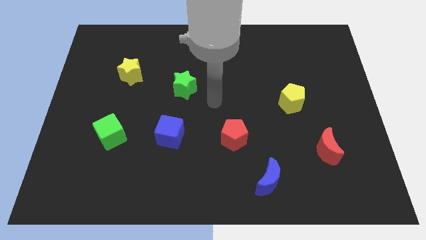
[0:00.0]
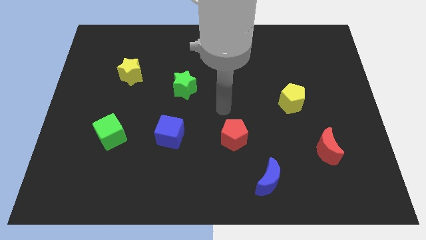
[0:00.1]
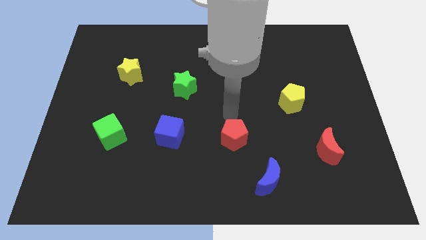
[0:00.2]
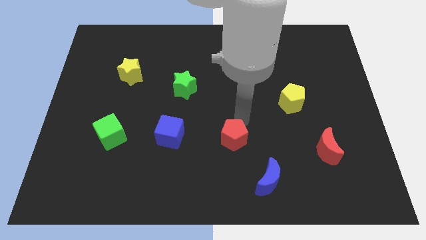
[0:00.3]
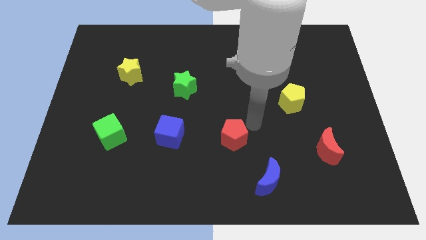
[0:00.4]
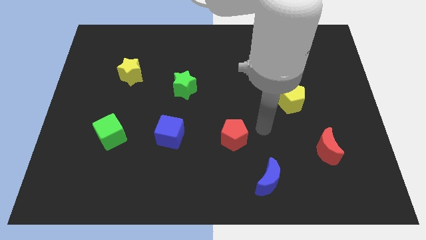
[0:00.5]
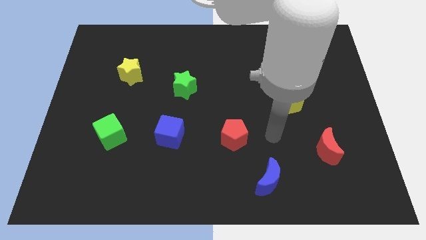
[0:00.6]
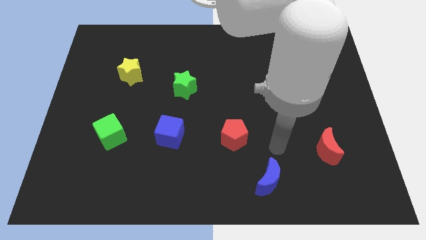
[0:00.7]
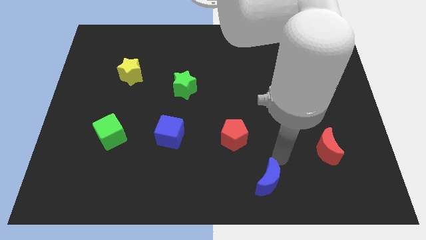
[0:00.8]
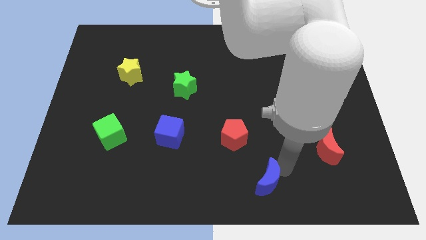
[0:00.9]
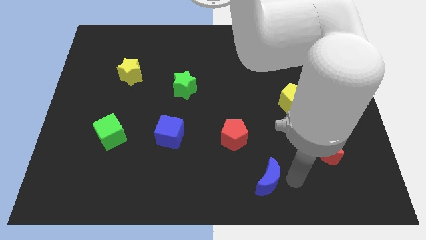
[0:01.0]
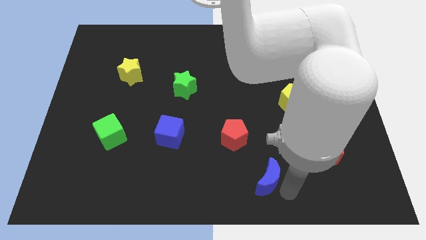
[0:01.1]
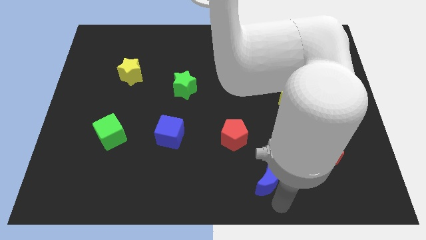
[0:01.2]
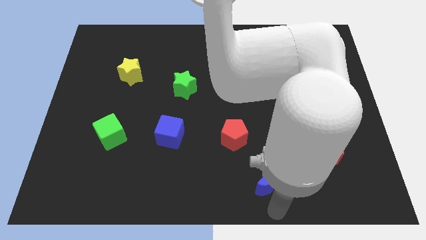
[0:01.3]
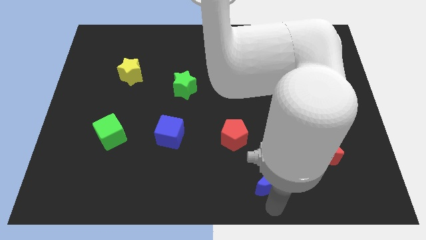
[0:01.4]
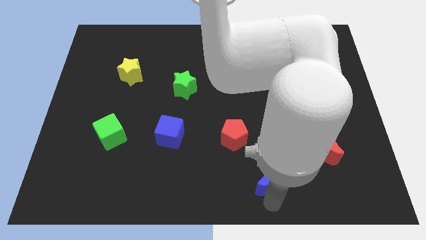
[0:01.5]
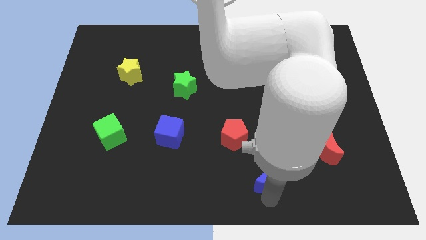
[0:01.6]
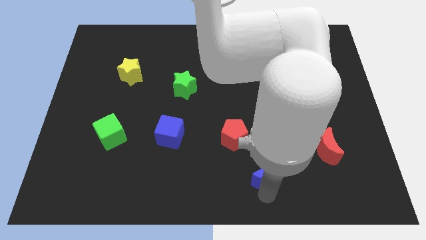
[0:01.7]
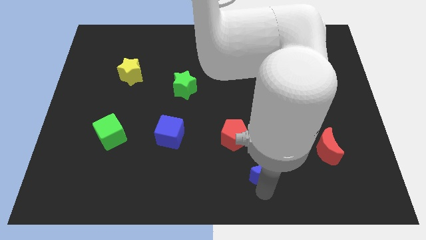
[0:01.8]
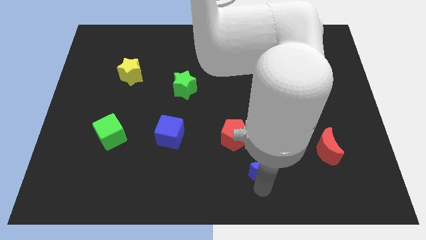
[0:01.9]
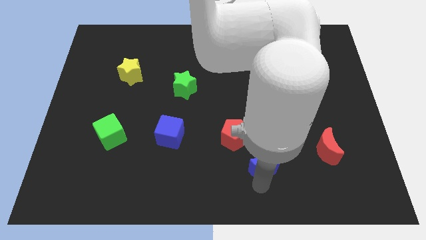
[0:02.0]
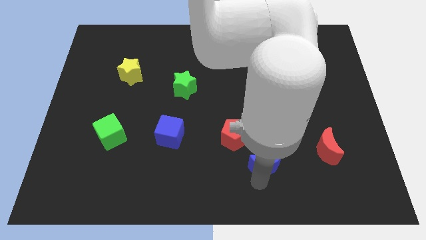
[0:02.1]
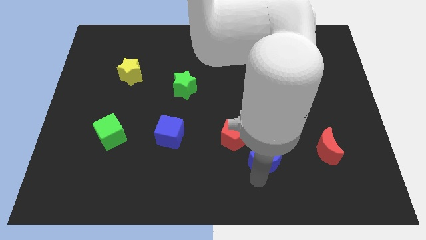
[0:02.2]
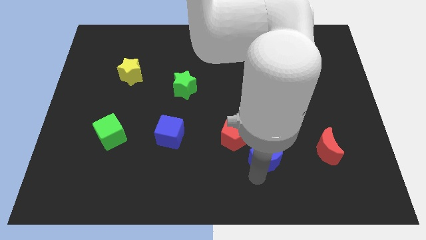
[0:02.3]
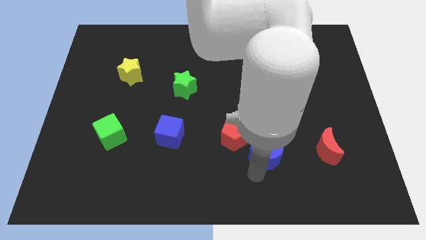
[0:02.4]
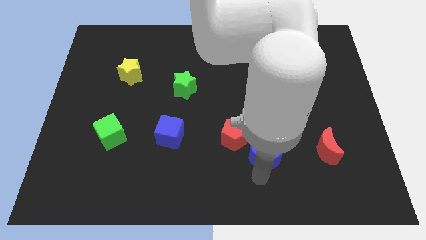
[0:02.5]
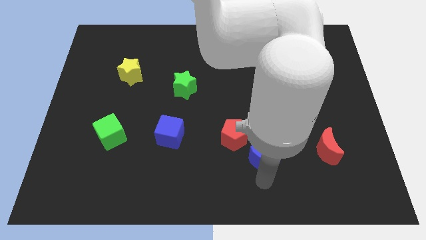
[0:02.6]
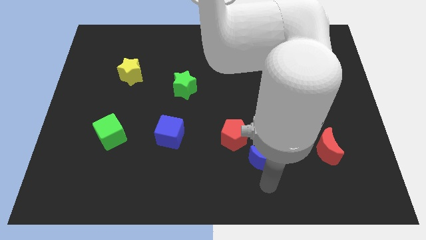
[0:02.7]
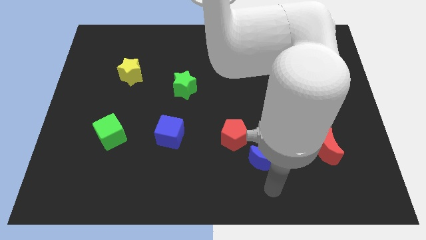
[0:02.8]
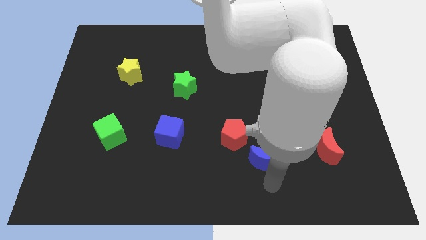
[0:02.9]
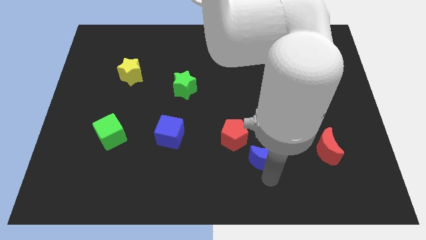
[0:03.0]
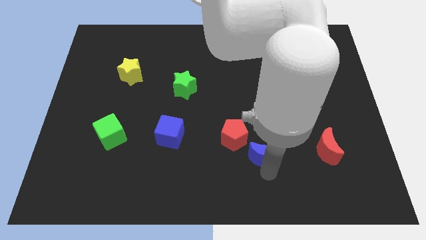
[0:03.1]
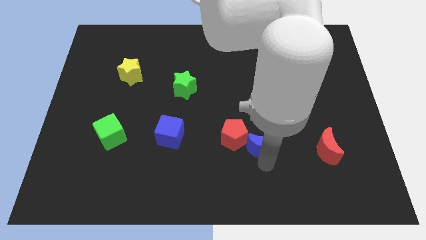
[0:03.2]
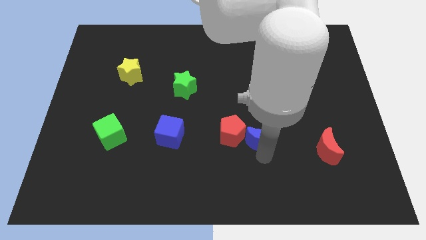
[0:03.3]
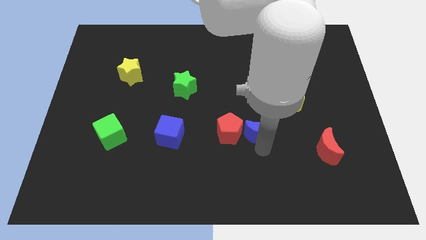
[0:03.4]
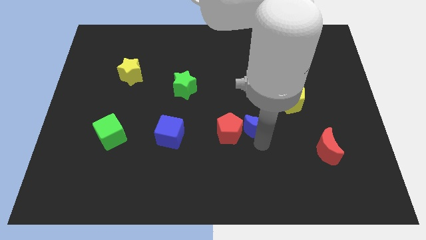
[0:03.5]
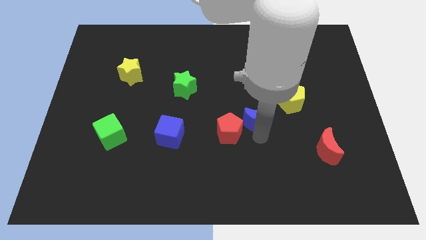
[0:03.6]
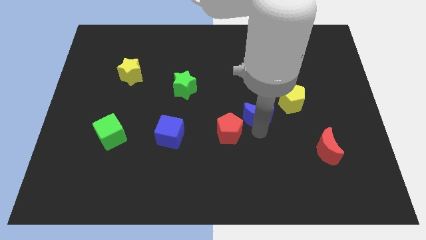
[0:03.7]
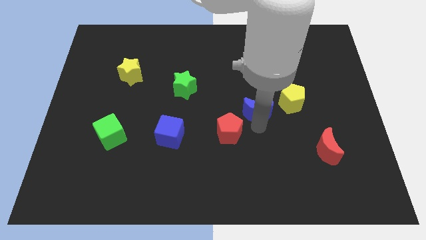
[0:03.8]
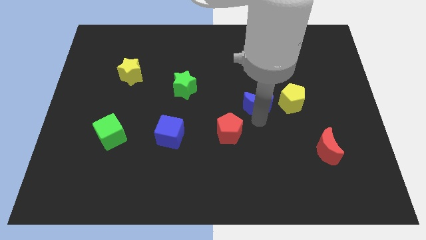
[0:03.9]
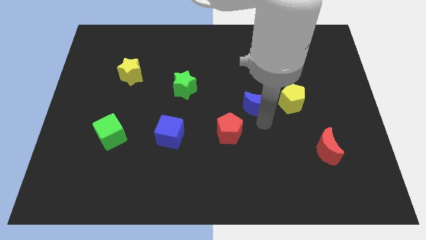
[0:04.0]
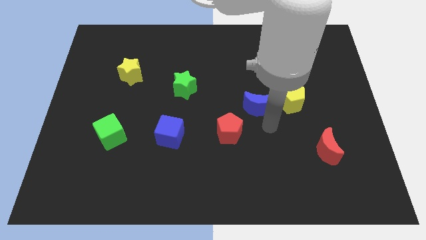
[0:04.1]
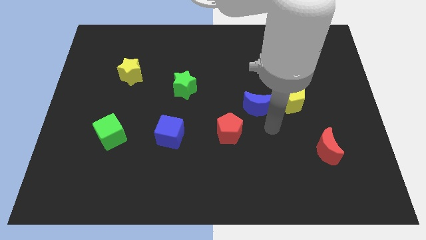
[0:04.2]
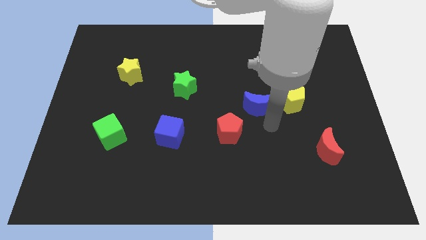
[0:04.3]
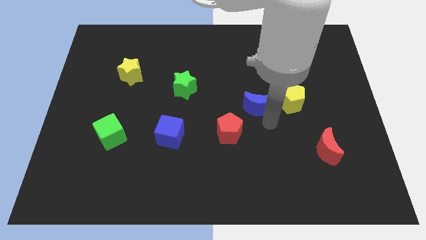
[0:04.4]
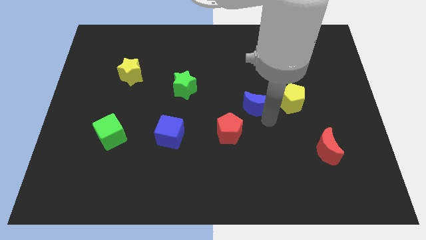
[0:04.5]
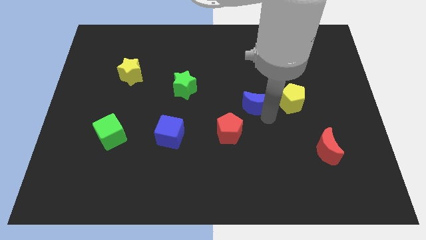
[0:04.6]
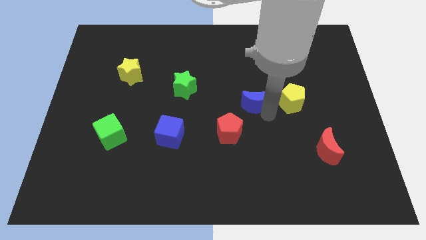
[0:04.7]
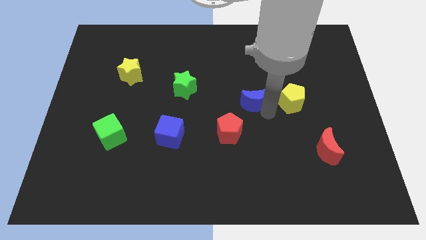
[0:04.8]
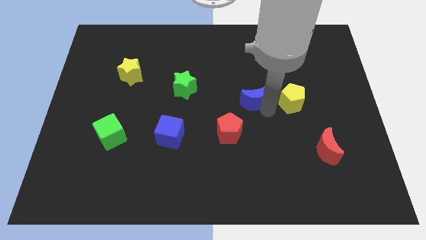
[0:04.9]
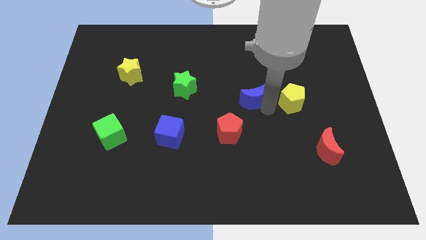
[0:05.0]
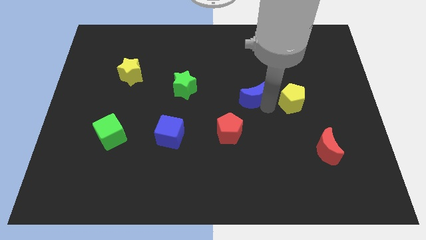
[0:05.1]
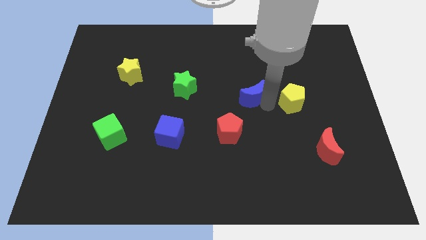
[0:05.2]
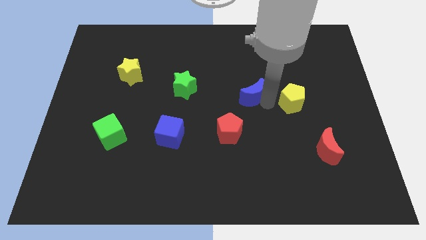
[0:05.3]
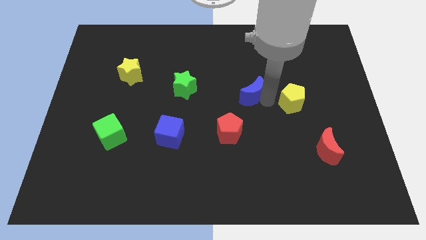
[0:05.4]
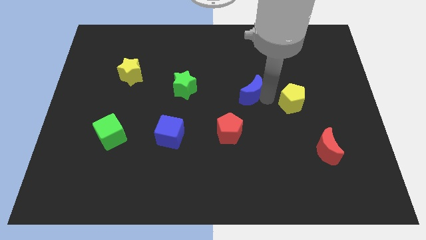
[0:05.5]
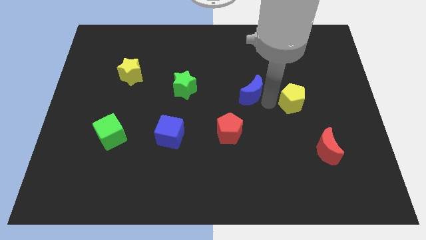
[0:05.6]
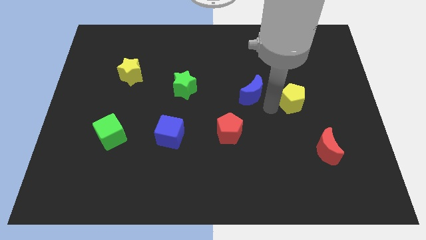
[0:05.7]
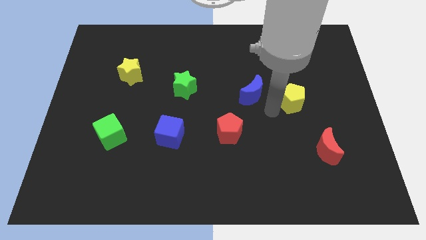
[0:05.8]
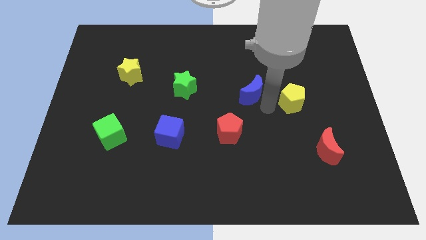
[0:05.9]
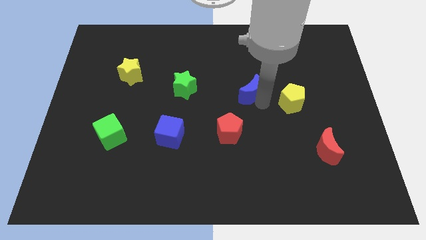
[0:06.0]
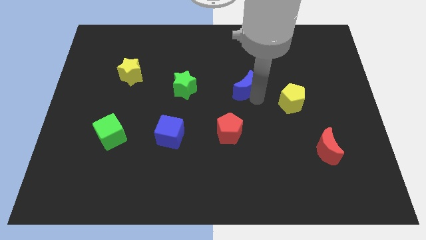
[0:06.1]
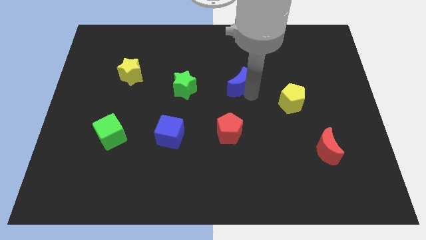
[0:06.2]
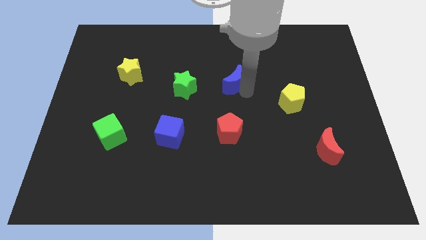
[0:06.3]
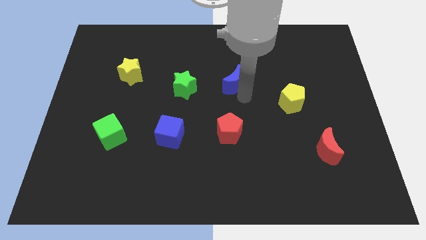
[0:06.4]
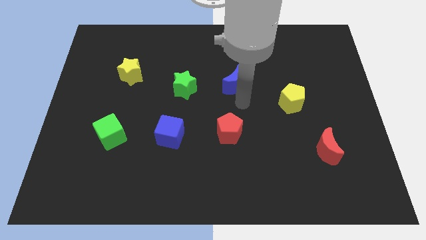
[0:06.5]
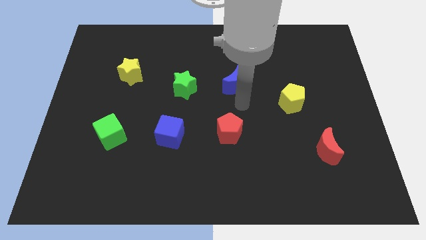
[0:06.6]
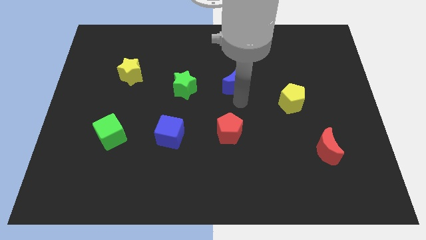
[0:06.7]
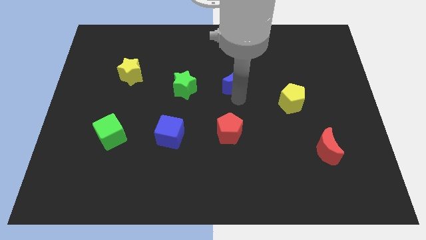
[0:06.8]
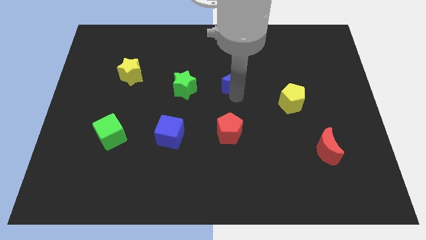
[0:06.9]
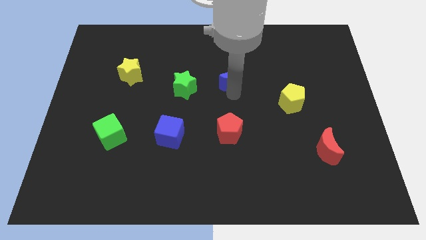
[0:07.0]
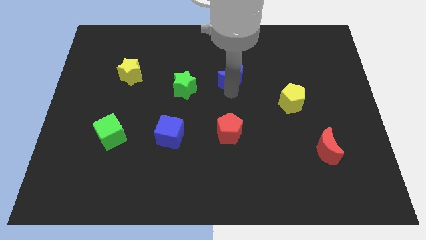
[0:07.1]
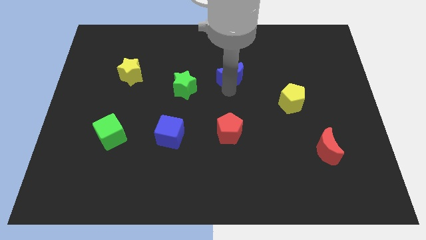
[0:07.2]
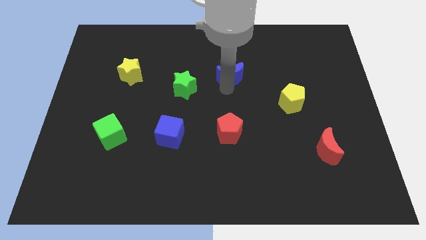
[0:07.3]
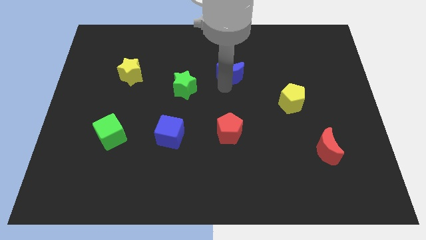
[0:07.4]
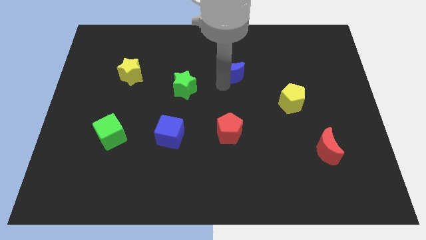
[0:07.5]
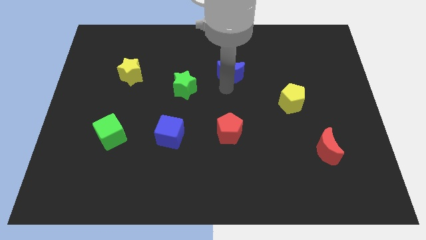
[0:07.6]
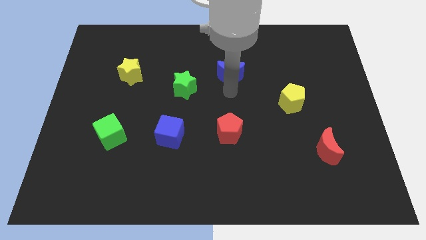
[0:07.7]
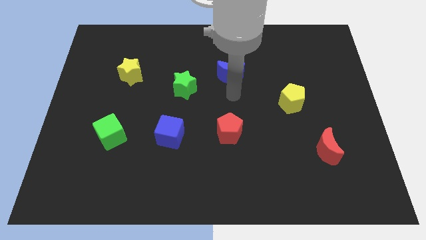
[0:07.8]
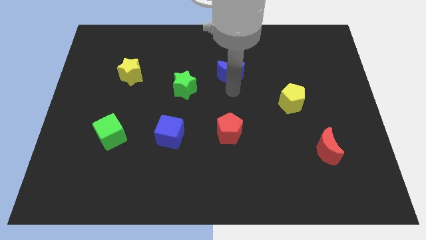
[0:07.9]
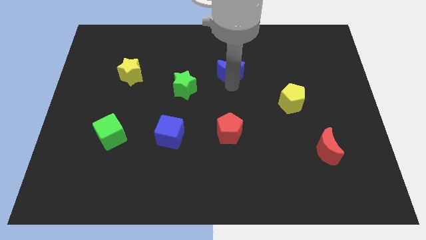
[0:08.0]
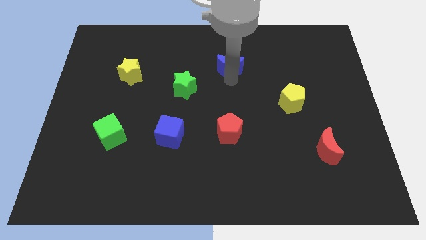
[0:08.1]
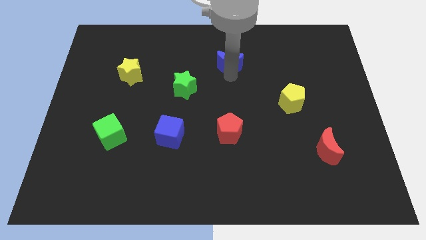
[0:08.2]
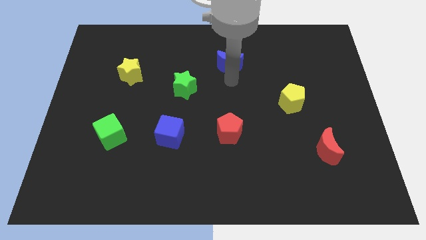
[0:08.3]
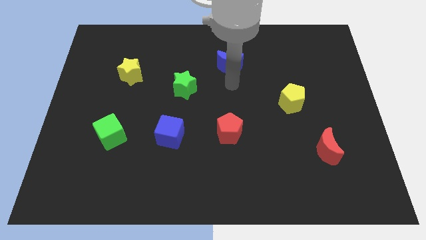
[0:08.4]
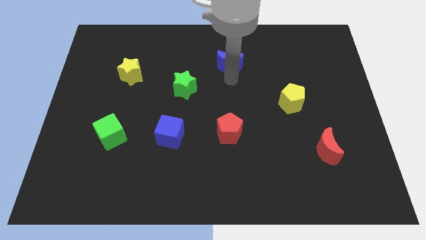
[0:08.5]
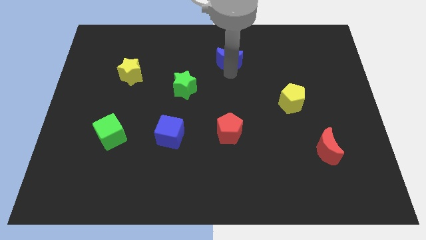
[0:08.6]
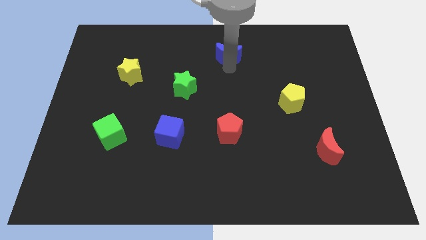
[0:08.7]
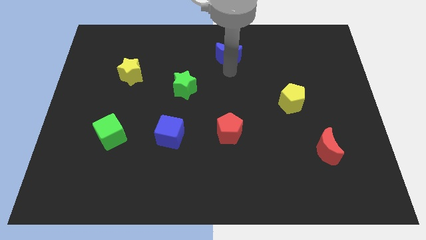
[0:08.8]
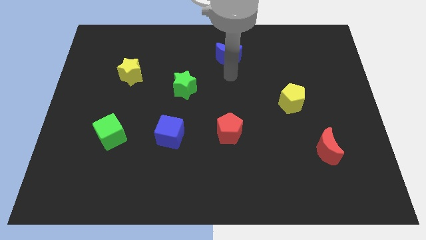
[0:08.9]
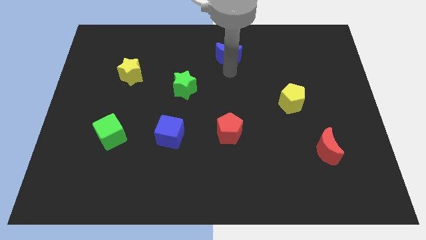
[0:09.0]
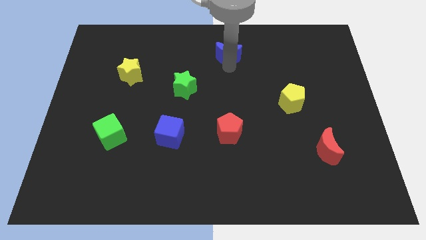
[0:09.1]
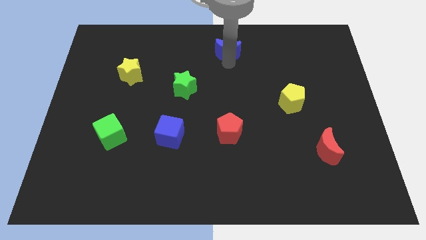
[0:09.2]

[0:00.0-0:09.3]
slide the blue moon to the top
